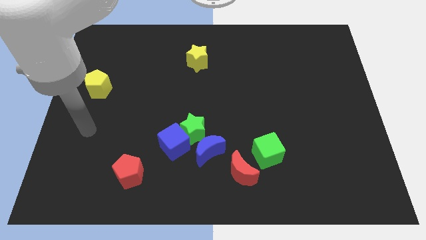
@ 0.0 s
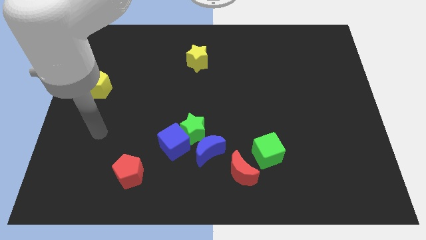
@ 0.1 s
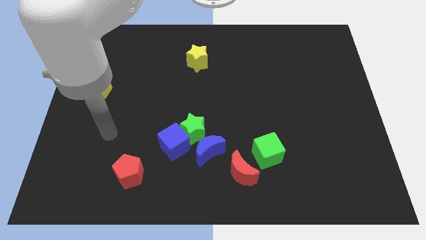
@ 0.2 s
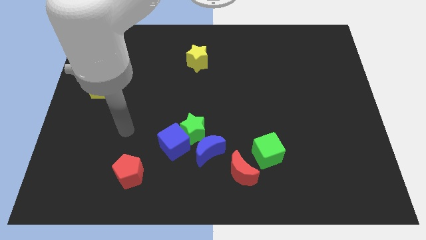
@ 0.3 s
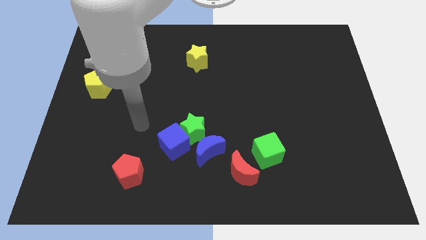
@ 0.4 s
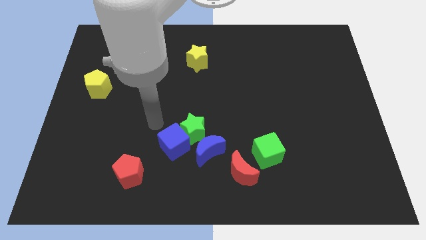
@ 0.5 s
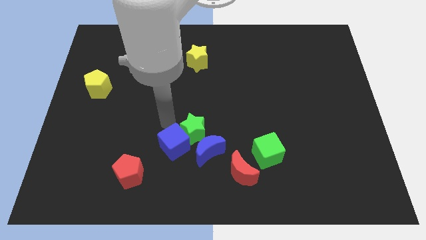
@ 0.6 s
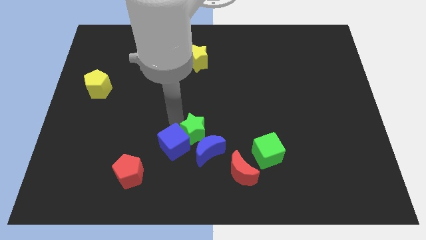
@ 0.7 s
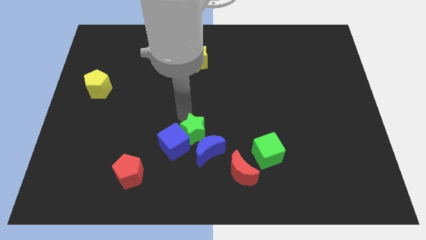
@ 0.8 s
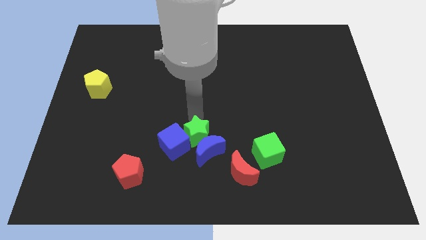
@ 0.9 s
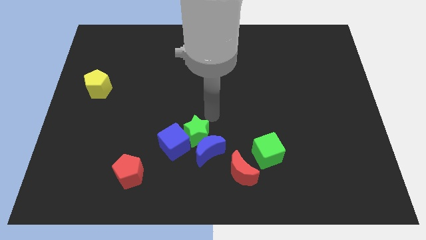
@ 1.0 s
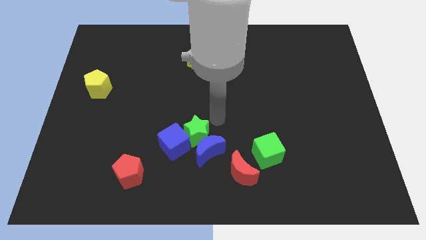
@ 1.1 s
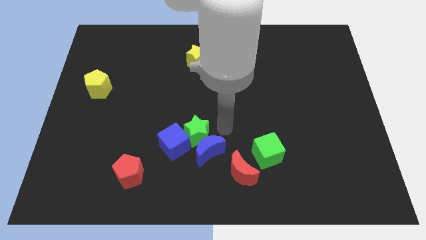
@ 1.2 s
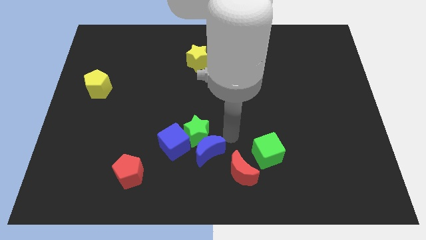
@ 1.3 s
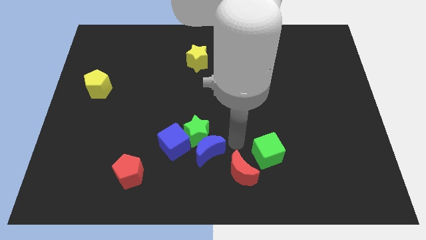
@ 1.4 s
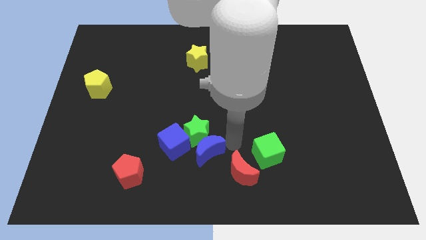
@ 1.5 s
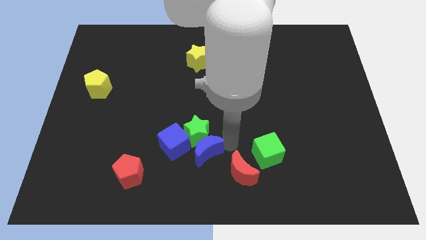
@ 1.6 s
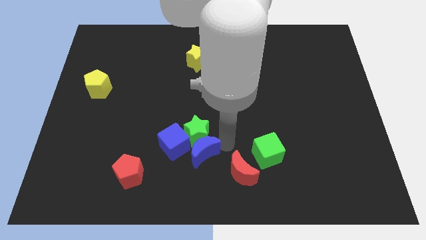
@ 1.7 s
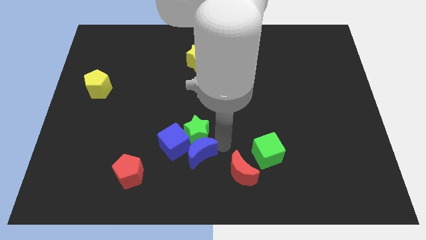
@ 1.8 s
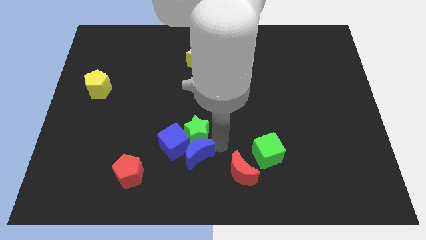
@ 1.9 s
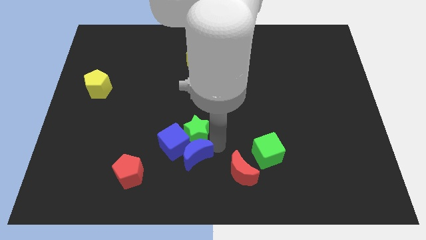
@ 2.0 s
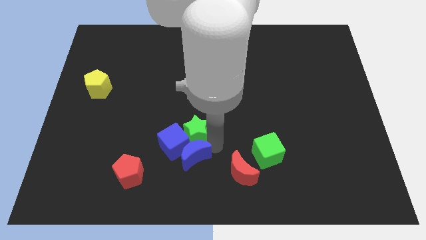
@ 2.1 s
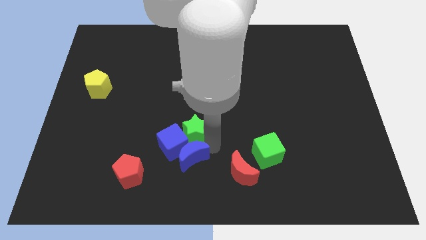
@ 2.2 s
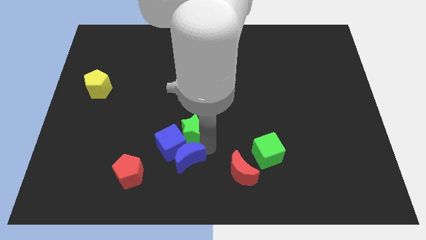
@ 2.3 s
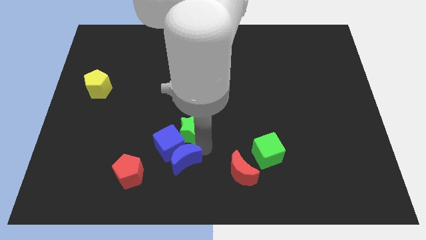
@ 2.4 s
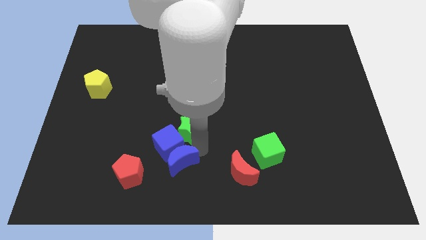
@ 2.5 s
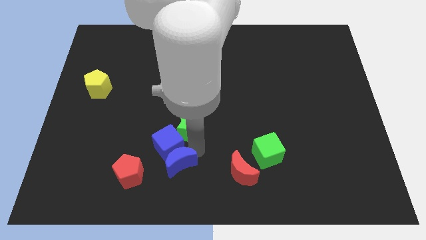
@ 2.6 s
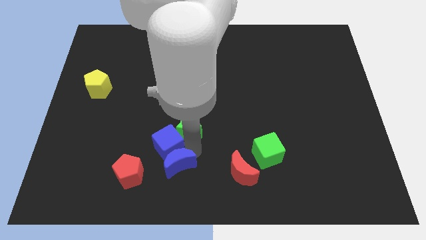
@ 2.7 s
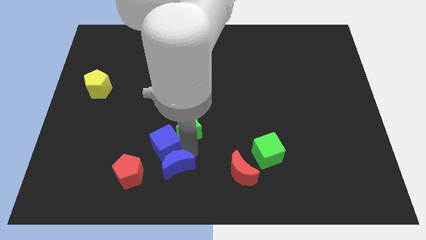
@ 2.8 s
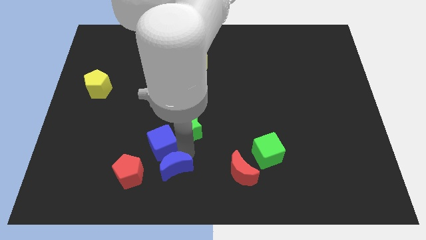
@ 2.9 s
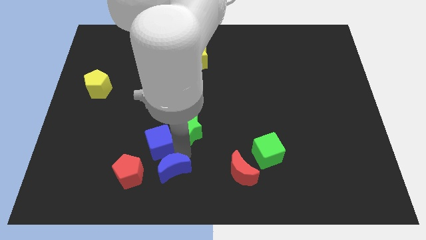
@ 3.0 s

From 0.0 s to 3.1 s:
push the blue moon to the left somewhat

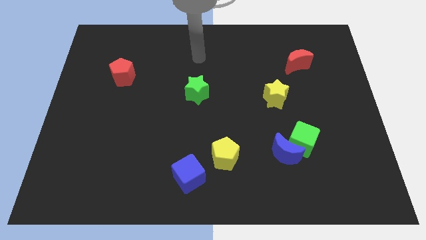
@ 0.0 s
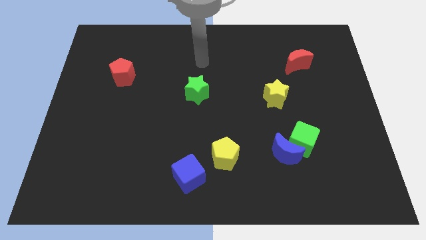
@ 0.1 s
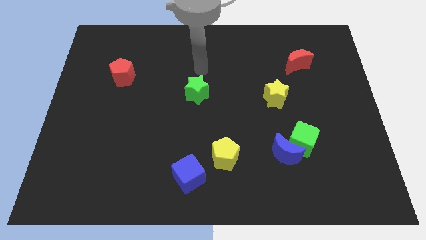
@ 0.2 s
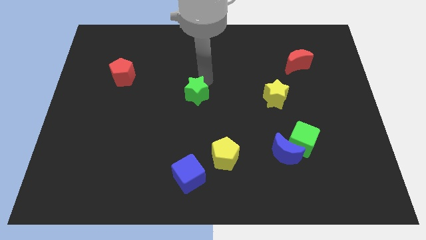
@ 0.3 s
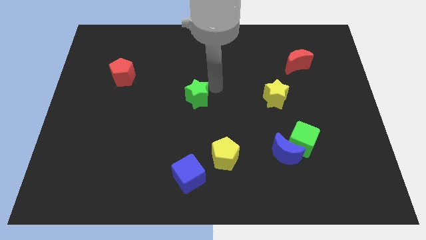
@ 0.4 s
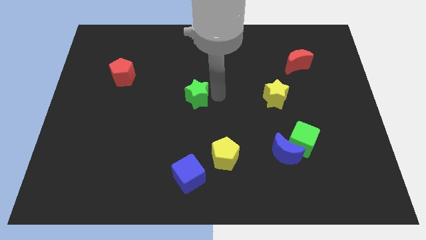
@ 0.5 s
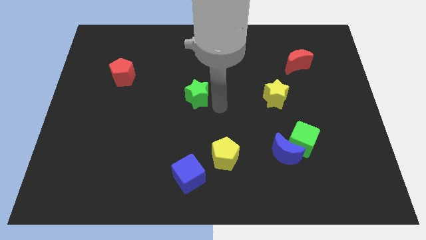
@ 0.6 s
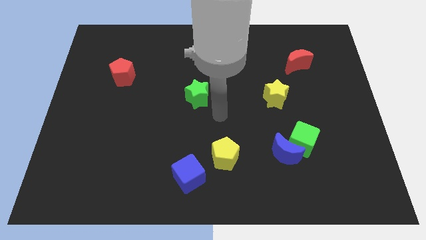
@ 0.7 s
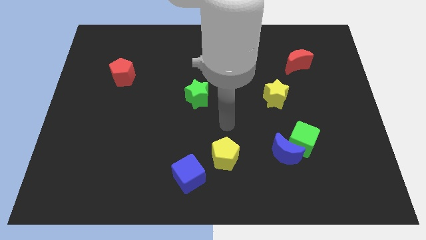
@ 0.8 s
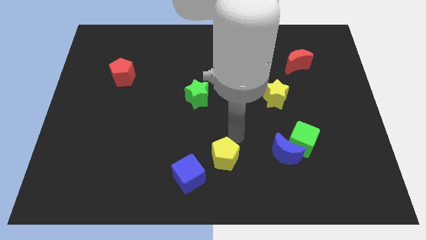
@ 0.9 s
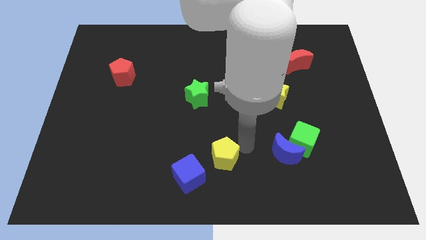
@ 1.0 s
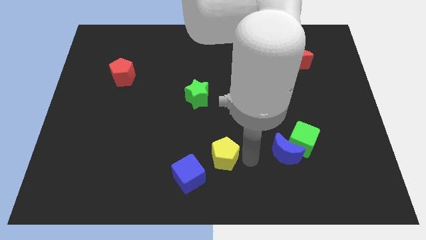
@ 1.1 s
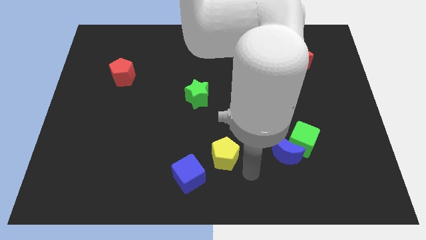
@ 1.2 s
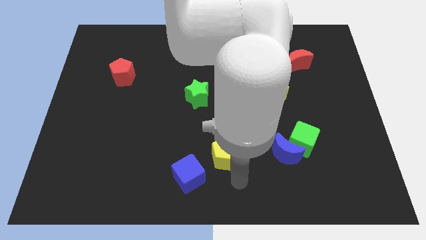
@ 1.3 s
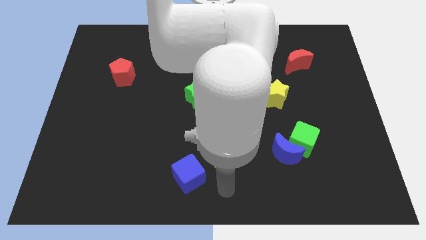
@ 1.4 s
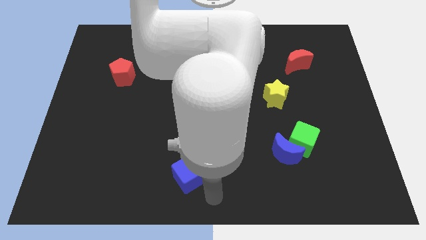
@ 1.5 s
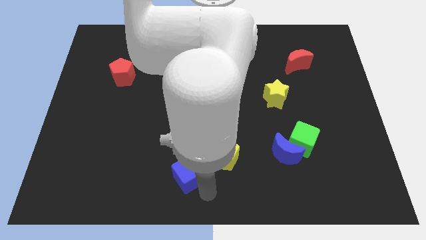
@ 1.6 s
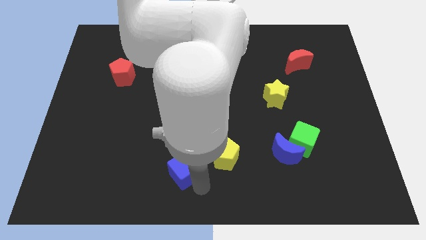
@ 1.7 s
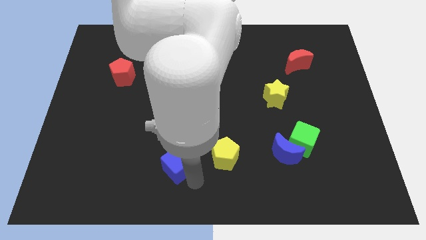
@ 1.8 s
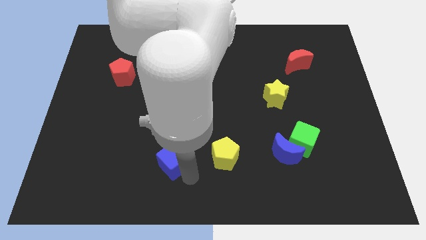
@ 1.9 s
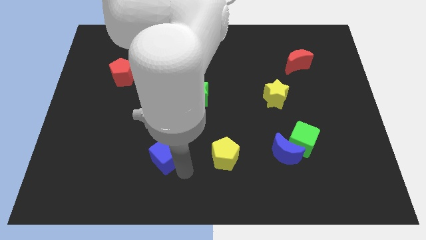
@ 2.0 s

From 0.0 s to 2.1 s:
slightly push the blue cube up and to the left diagonally

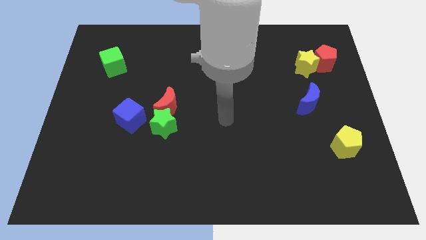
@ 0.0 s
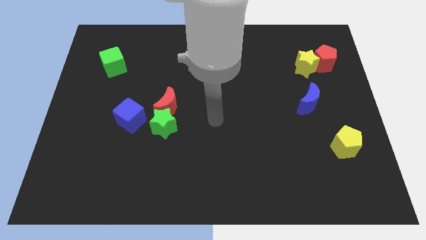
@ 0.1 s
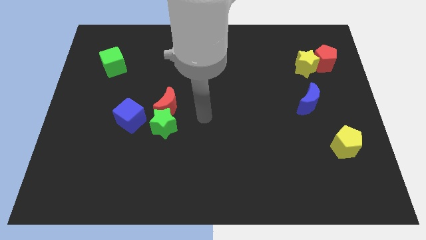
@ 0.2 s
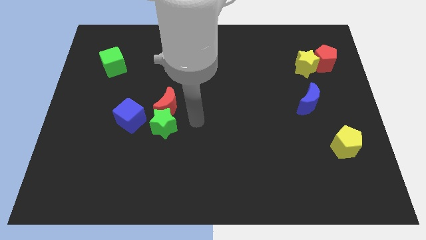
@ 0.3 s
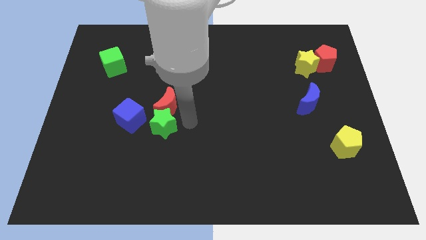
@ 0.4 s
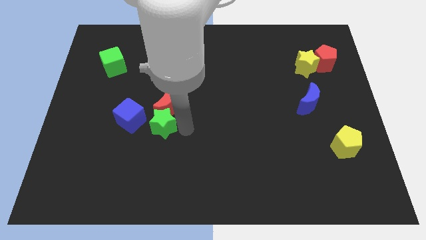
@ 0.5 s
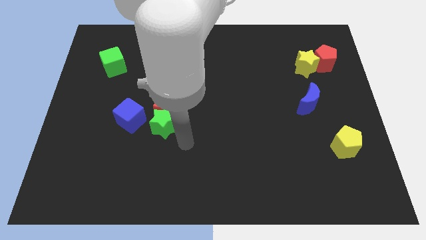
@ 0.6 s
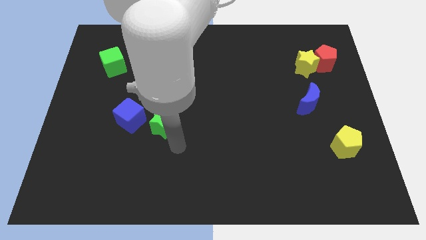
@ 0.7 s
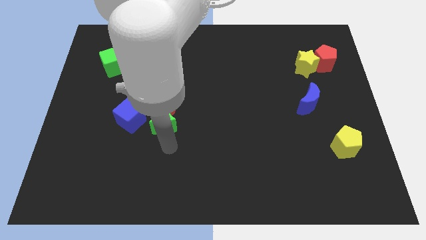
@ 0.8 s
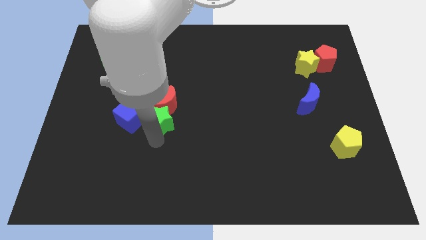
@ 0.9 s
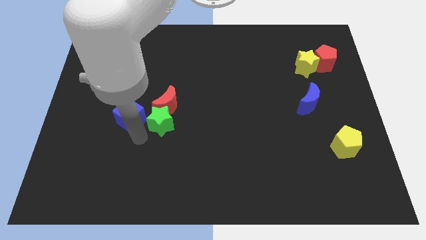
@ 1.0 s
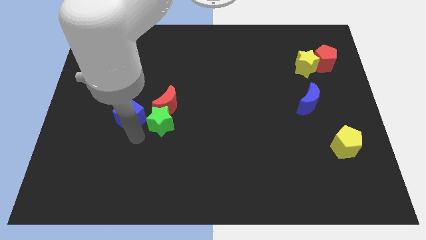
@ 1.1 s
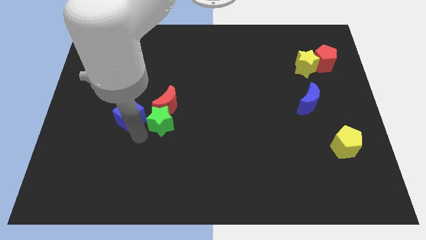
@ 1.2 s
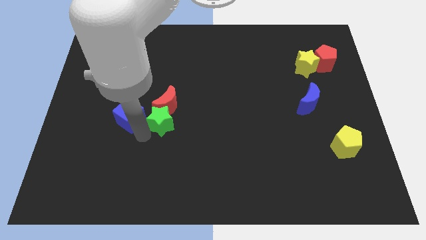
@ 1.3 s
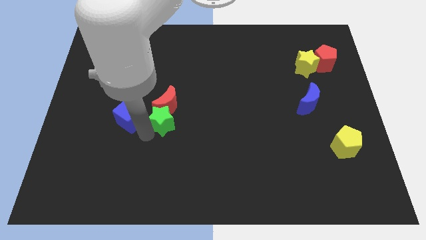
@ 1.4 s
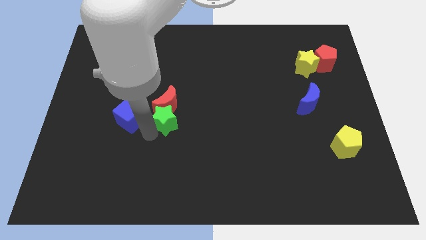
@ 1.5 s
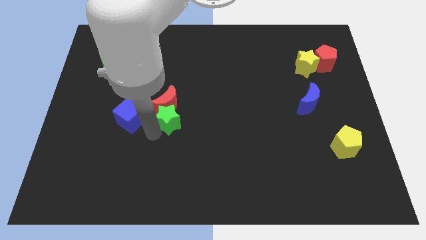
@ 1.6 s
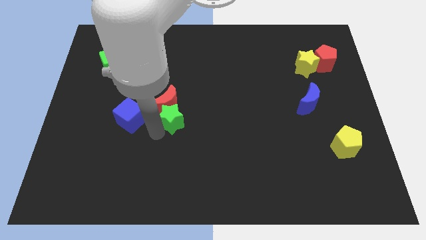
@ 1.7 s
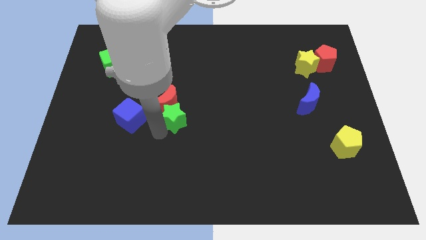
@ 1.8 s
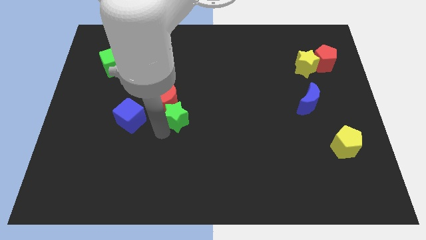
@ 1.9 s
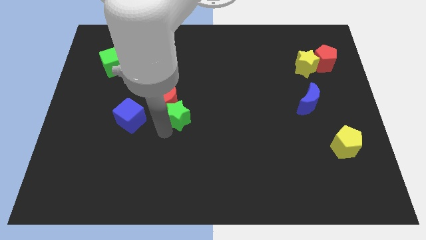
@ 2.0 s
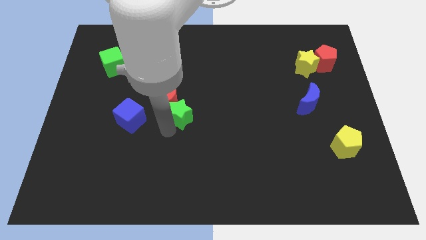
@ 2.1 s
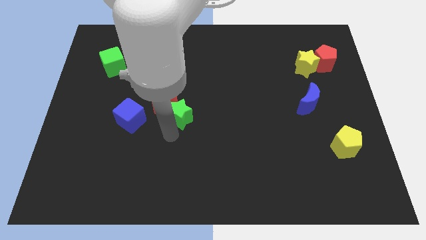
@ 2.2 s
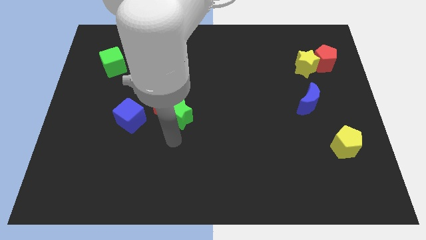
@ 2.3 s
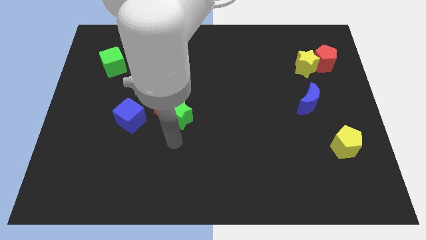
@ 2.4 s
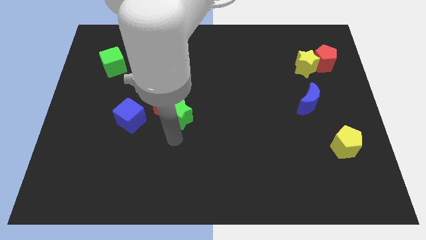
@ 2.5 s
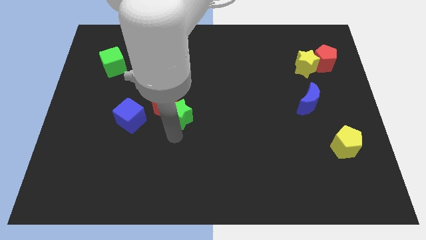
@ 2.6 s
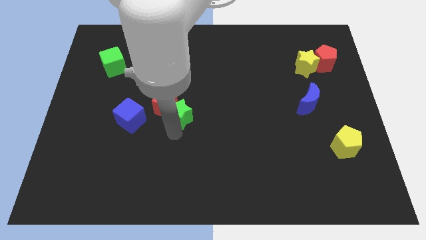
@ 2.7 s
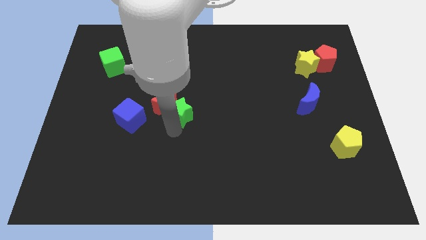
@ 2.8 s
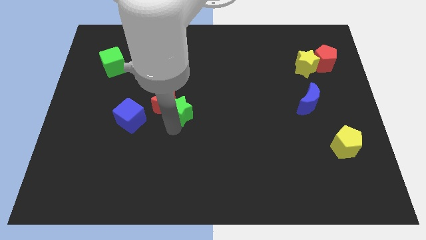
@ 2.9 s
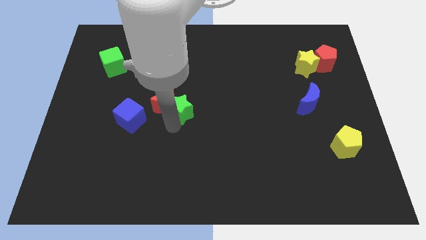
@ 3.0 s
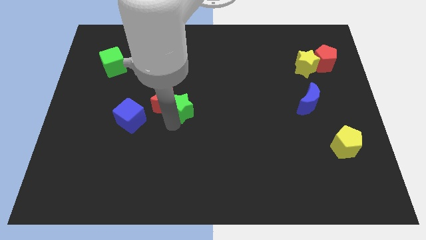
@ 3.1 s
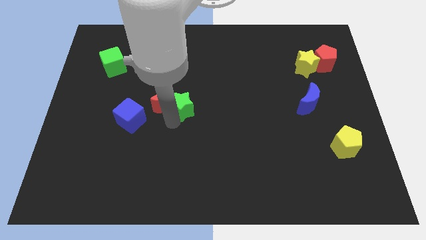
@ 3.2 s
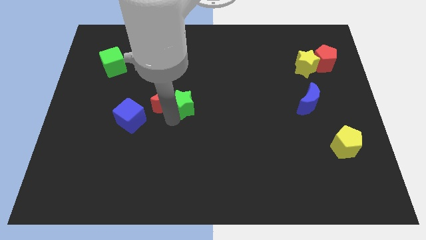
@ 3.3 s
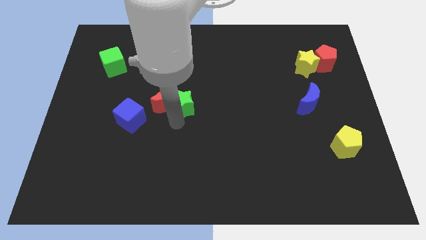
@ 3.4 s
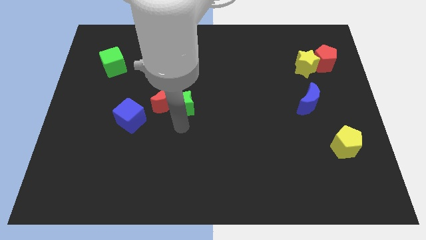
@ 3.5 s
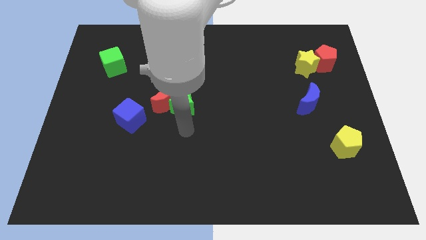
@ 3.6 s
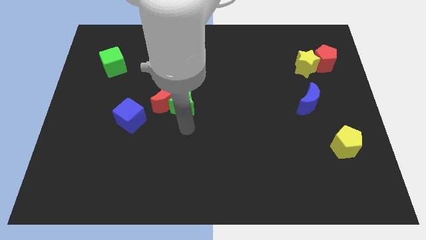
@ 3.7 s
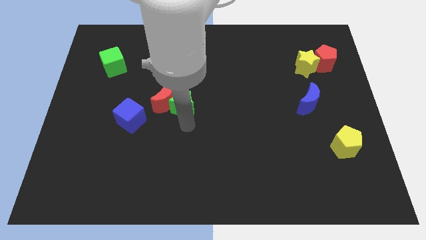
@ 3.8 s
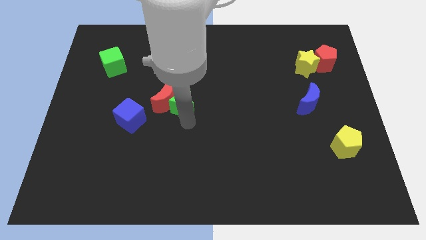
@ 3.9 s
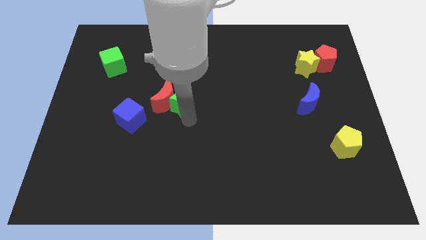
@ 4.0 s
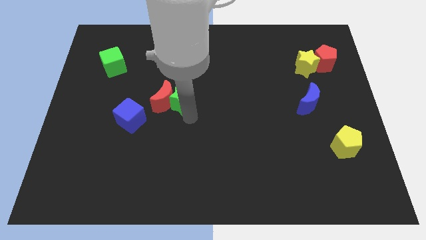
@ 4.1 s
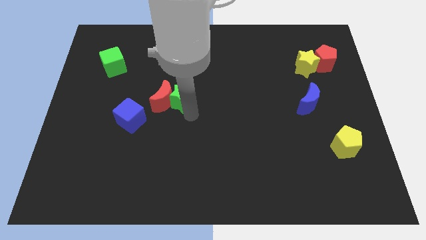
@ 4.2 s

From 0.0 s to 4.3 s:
push the green star upwards slightly
